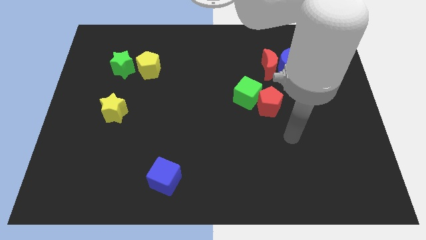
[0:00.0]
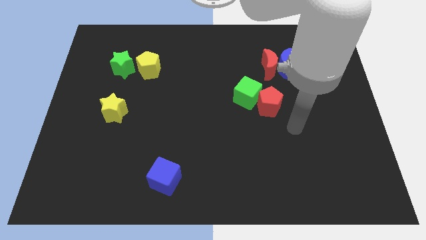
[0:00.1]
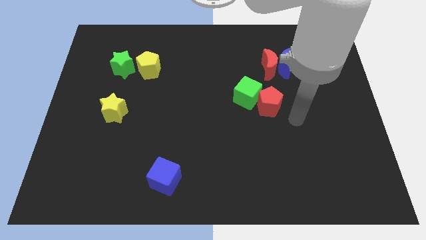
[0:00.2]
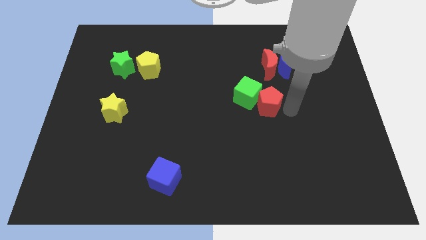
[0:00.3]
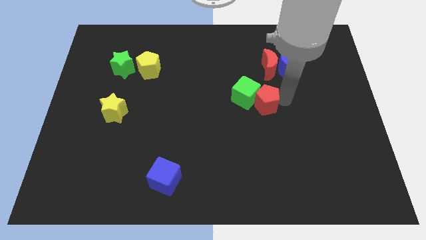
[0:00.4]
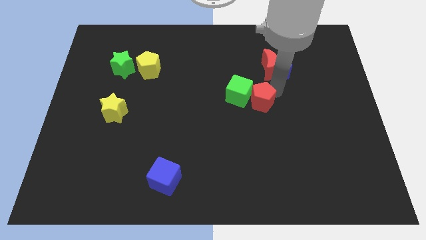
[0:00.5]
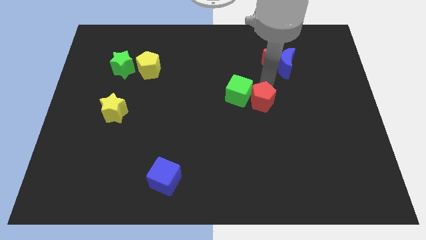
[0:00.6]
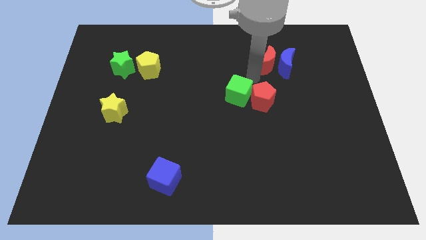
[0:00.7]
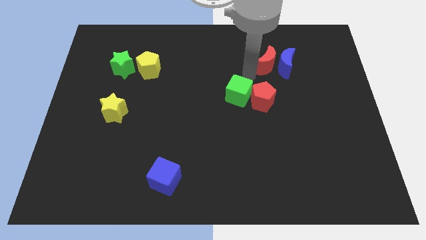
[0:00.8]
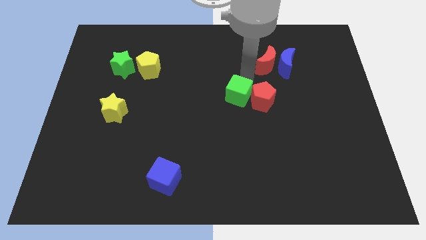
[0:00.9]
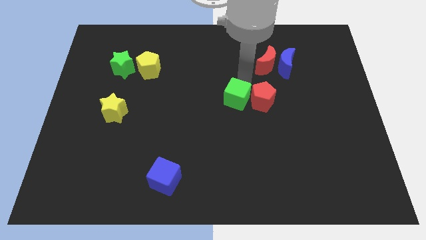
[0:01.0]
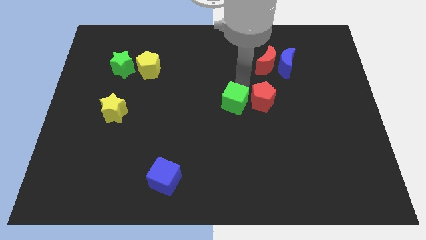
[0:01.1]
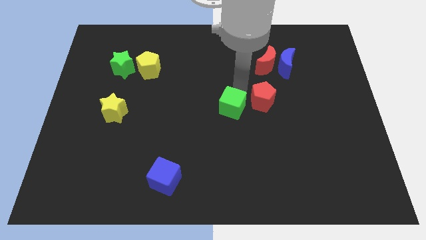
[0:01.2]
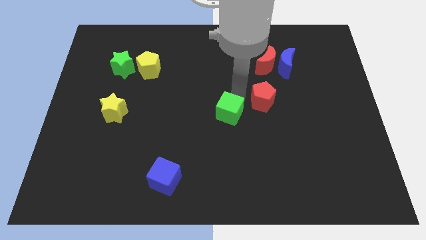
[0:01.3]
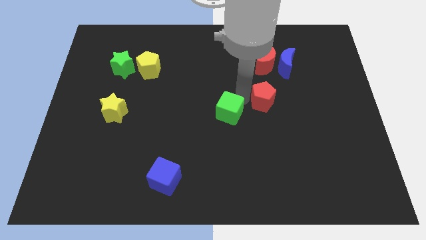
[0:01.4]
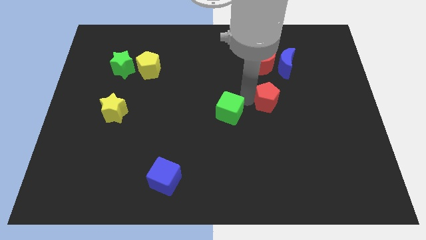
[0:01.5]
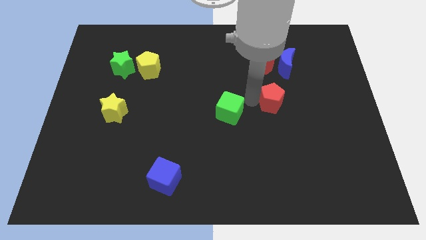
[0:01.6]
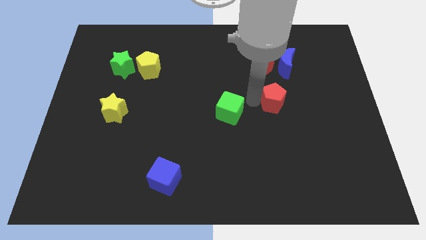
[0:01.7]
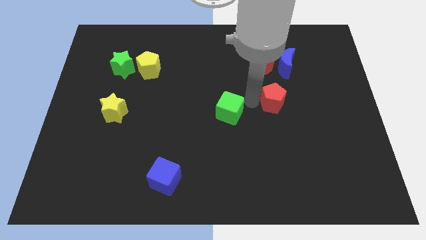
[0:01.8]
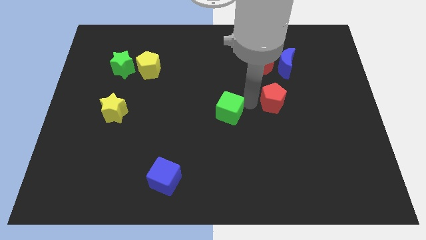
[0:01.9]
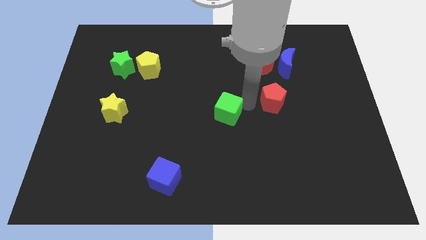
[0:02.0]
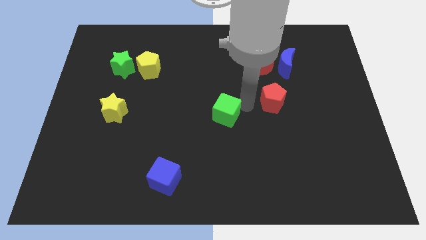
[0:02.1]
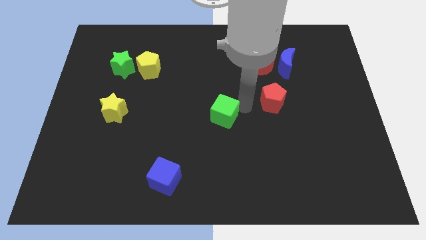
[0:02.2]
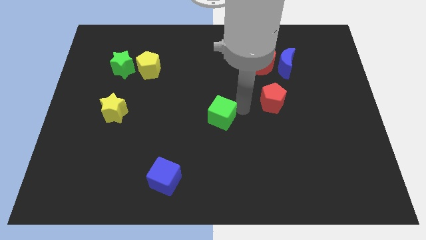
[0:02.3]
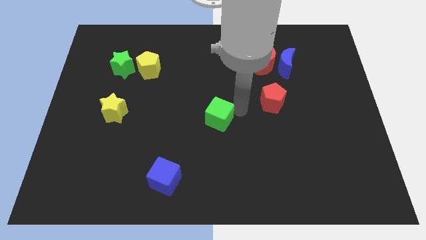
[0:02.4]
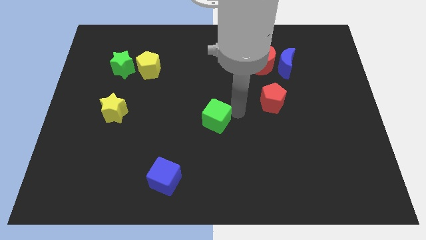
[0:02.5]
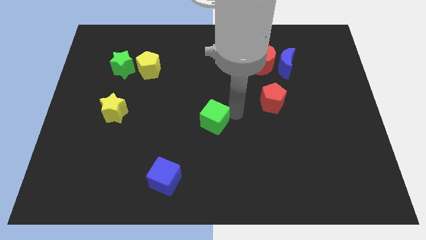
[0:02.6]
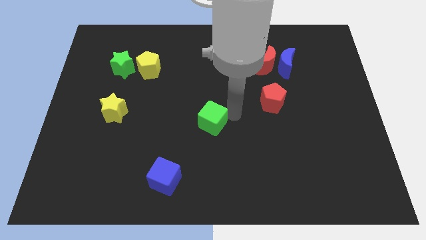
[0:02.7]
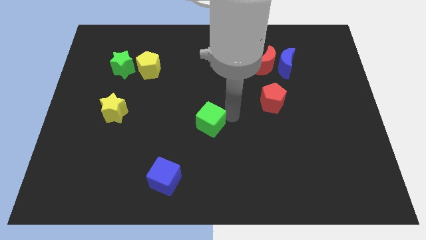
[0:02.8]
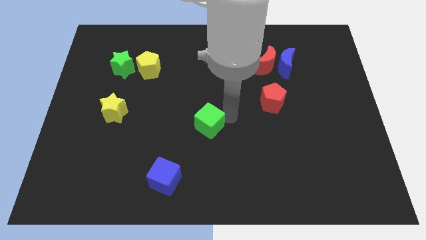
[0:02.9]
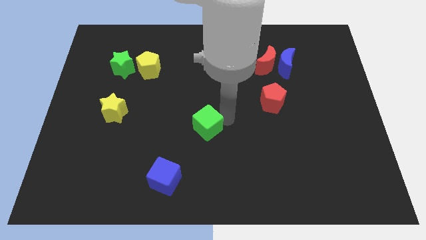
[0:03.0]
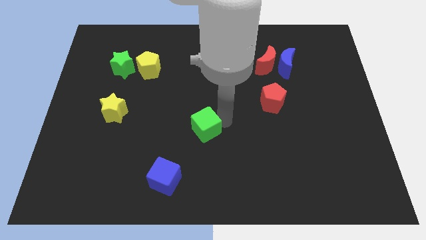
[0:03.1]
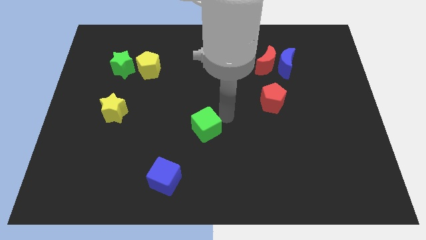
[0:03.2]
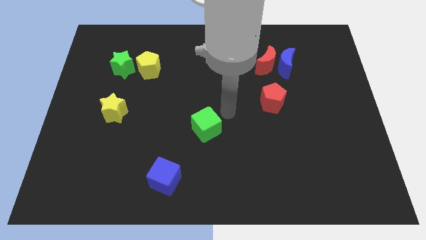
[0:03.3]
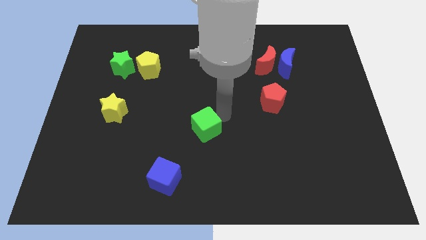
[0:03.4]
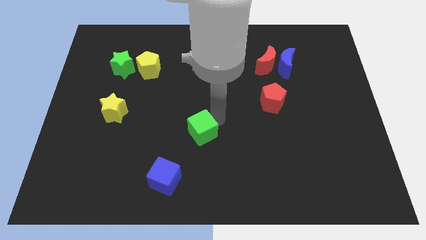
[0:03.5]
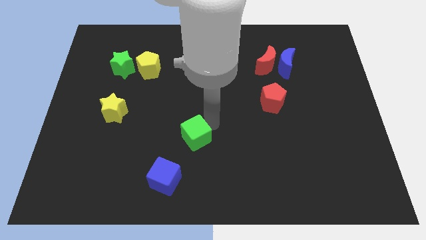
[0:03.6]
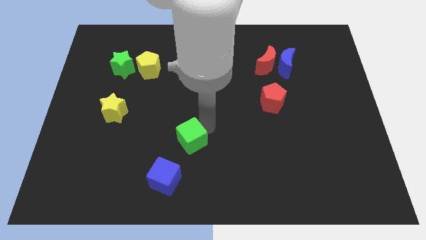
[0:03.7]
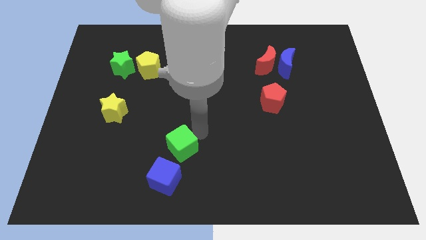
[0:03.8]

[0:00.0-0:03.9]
move the green cube down and left diagonally

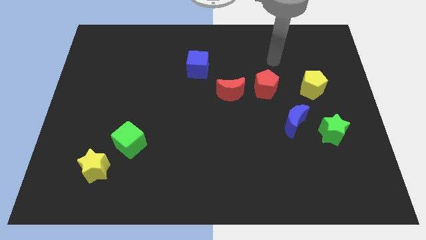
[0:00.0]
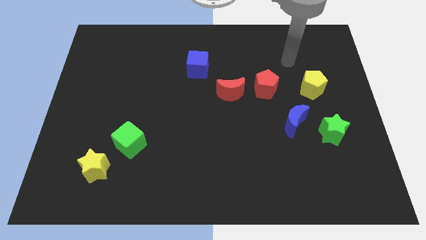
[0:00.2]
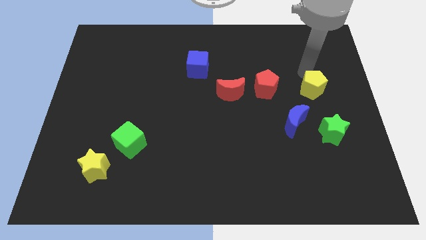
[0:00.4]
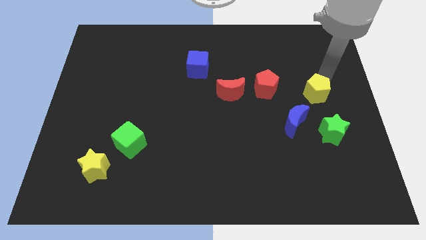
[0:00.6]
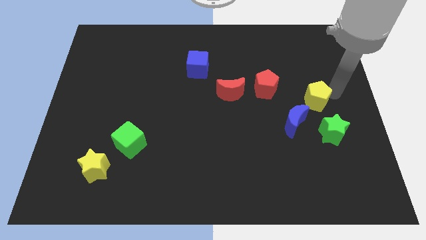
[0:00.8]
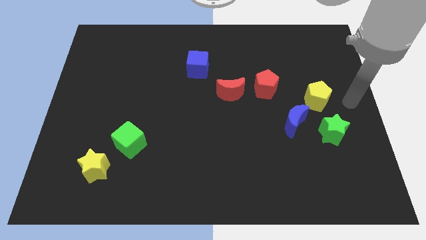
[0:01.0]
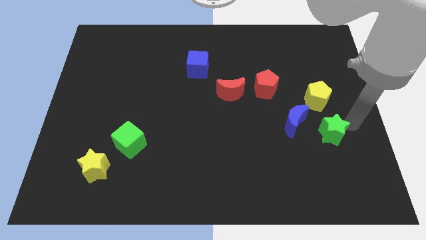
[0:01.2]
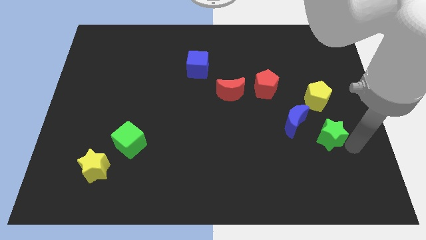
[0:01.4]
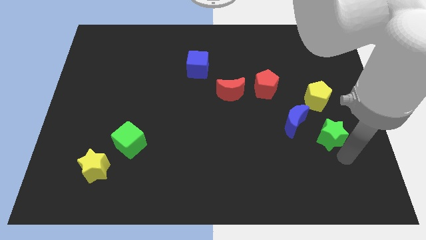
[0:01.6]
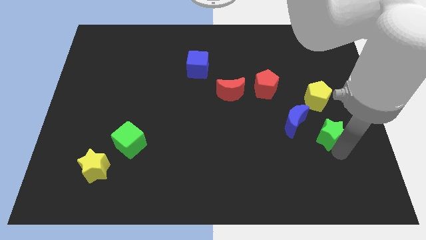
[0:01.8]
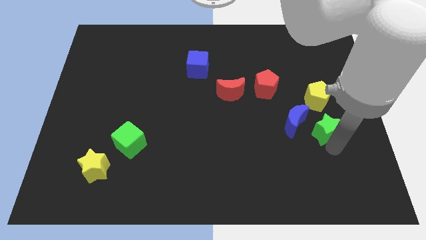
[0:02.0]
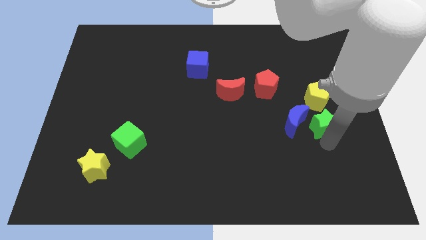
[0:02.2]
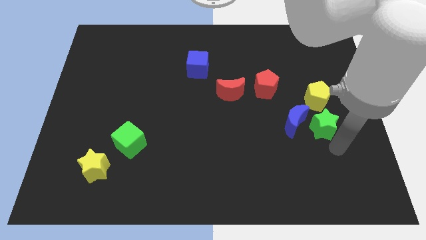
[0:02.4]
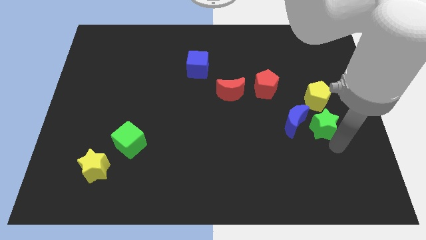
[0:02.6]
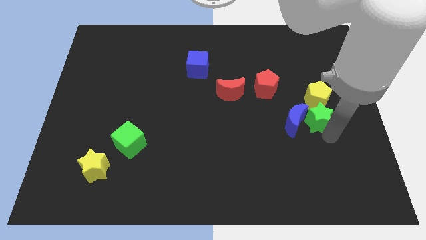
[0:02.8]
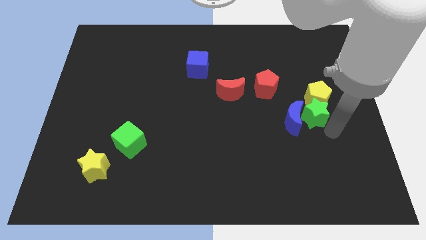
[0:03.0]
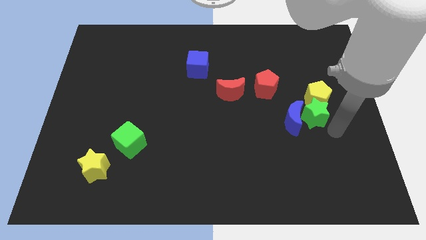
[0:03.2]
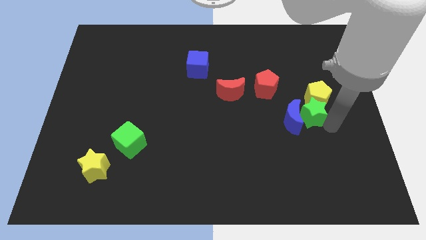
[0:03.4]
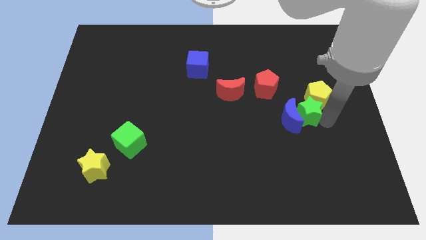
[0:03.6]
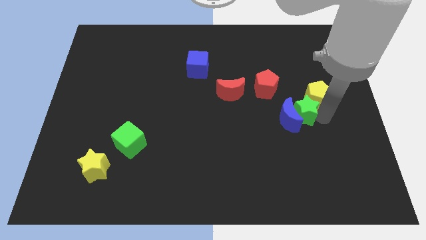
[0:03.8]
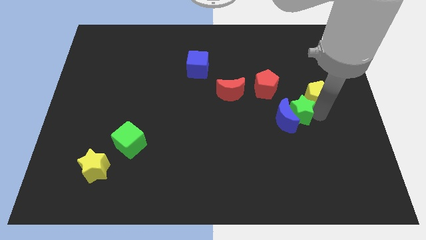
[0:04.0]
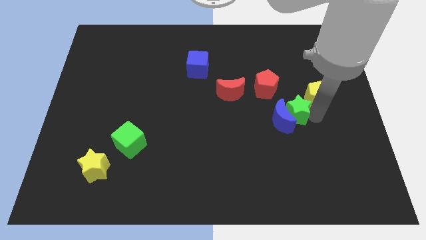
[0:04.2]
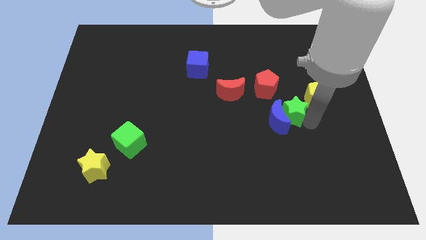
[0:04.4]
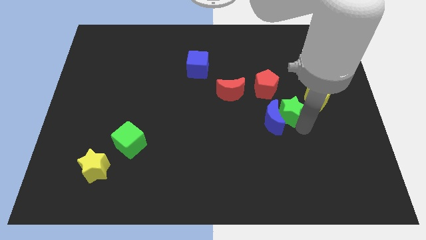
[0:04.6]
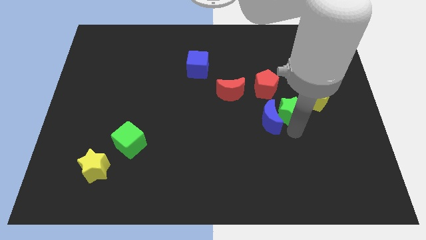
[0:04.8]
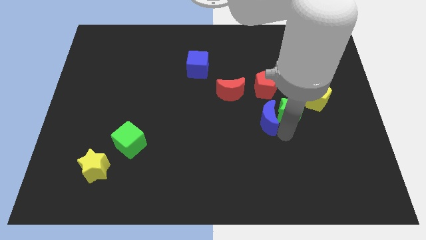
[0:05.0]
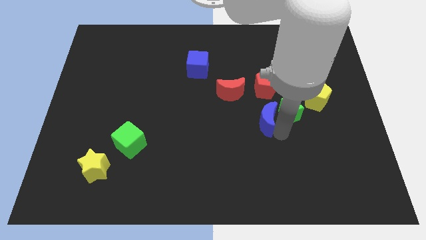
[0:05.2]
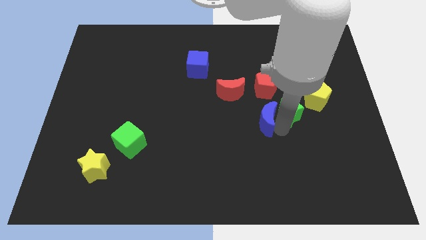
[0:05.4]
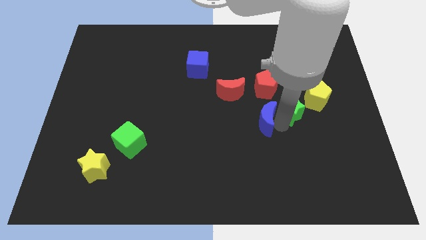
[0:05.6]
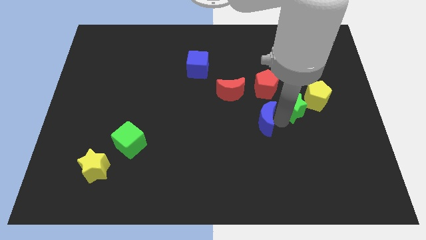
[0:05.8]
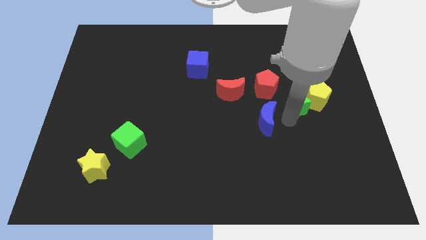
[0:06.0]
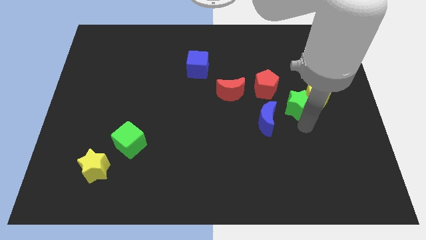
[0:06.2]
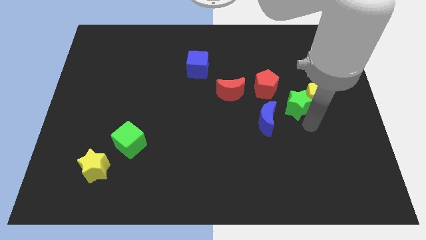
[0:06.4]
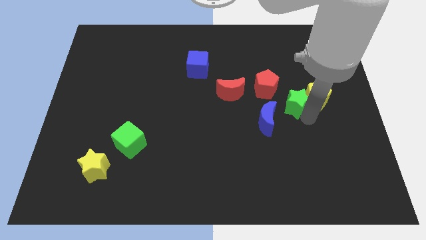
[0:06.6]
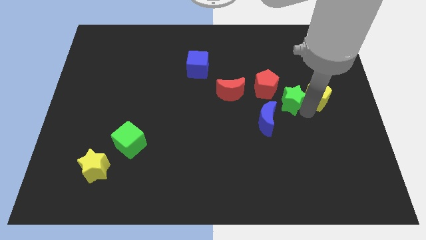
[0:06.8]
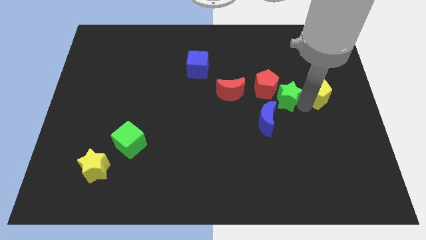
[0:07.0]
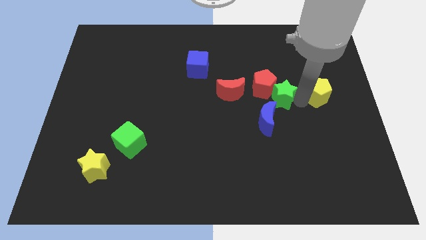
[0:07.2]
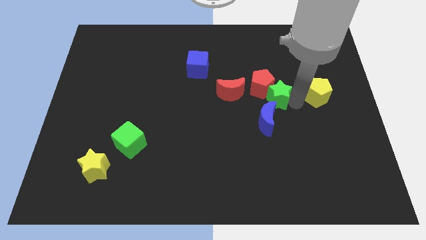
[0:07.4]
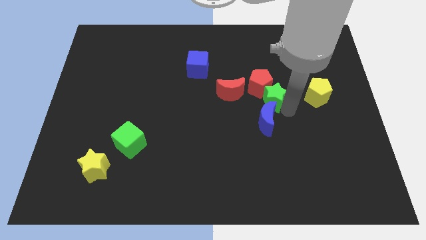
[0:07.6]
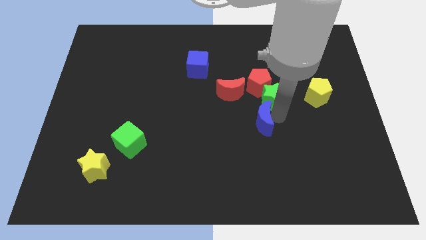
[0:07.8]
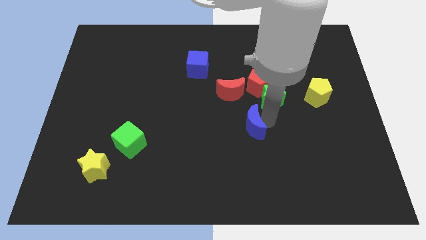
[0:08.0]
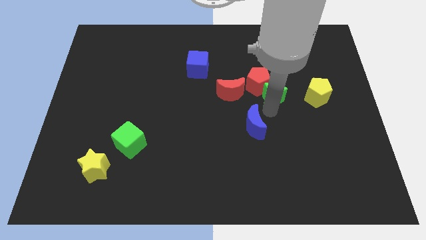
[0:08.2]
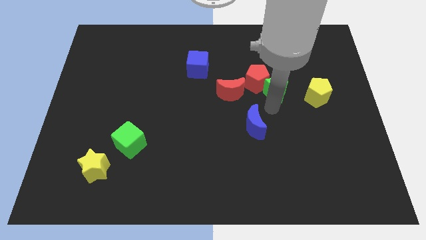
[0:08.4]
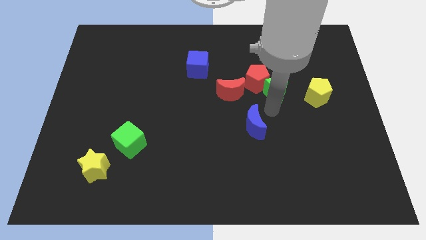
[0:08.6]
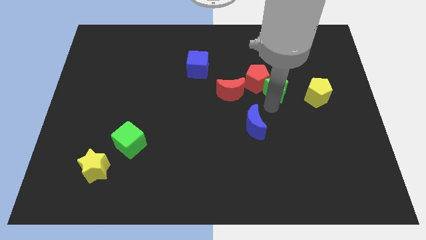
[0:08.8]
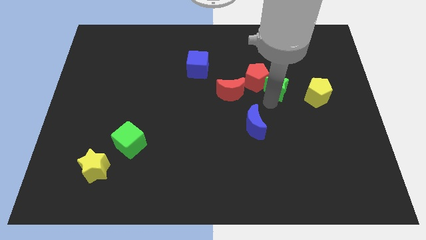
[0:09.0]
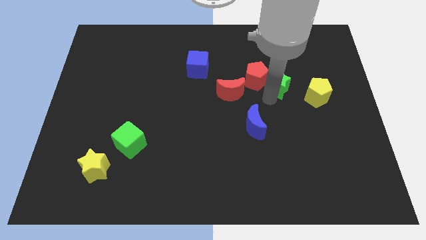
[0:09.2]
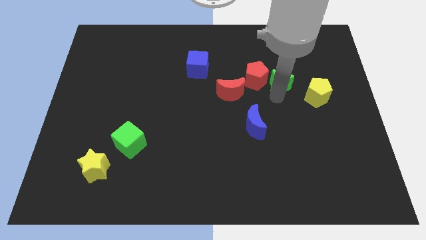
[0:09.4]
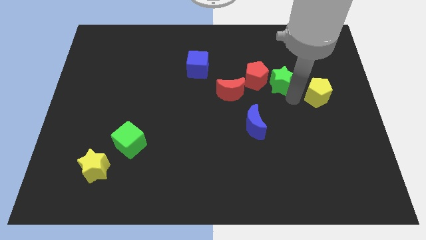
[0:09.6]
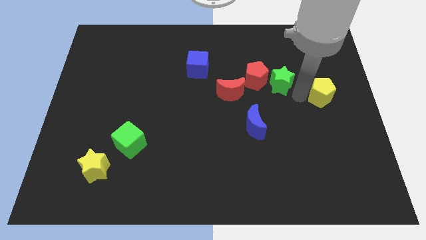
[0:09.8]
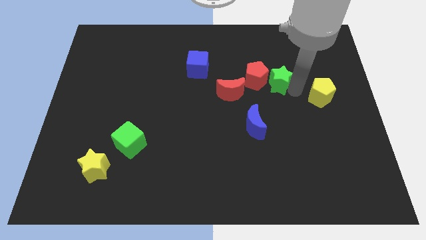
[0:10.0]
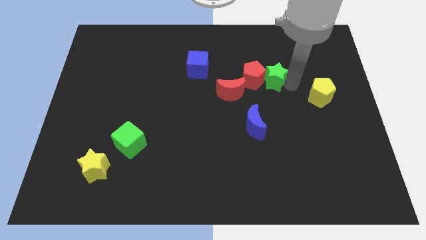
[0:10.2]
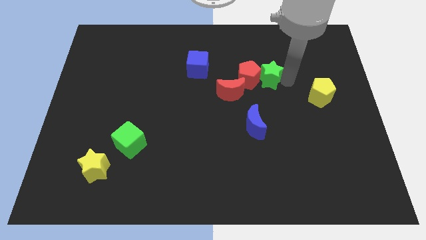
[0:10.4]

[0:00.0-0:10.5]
move the green star upwards and then left
